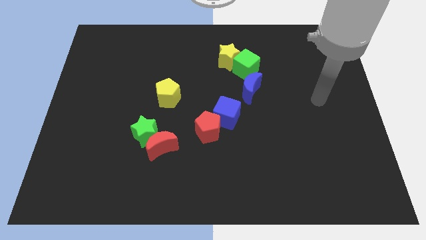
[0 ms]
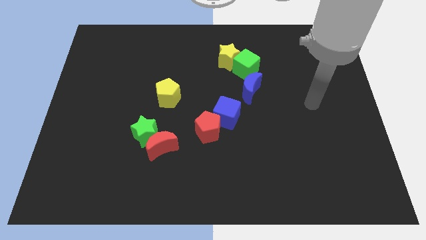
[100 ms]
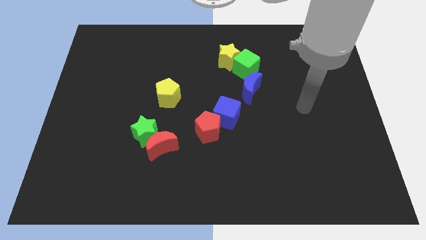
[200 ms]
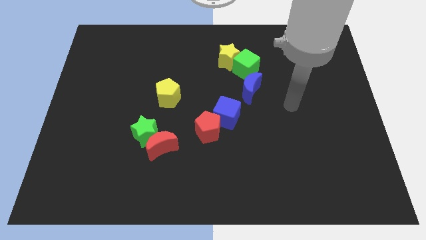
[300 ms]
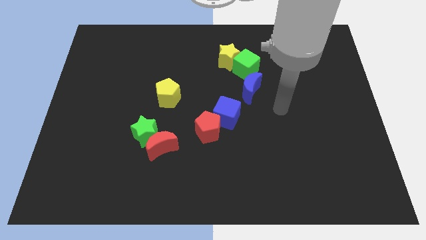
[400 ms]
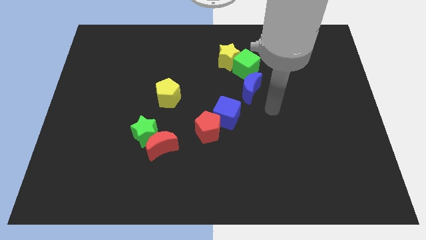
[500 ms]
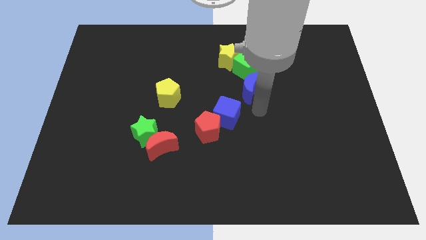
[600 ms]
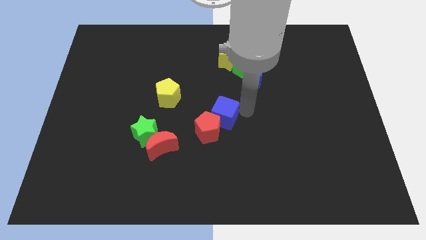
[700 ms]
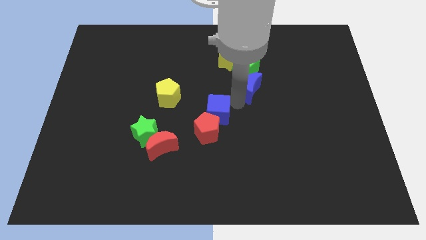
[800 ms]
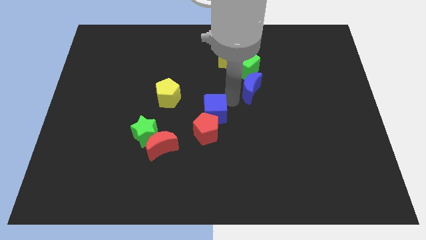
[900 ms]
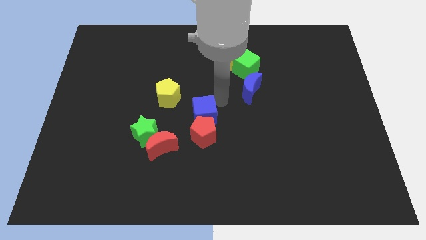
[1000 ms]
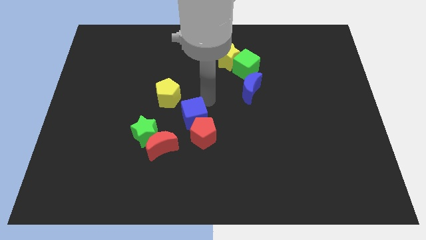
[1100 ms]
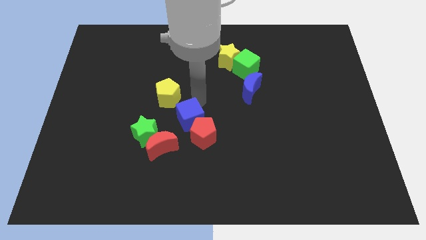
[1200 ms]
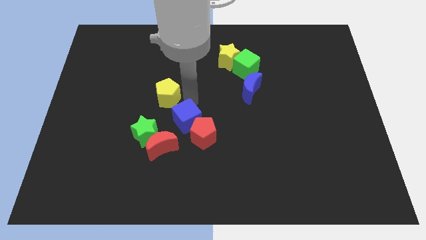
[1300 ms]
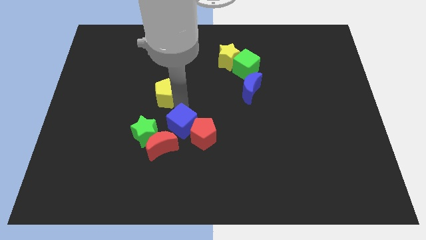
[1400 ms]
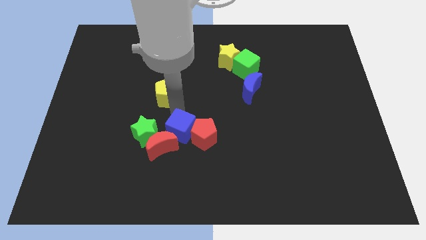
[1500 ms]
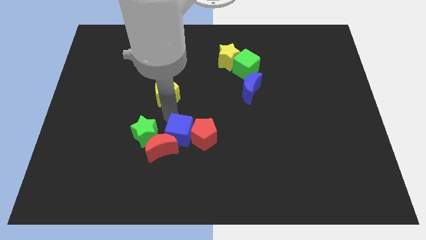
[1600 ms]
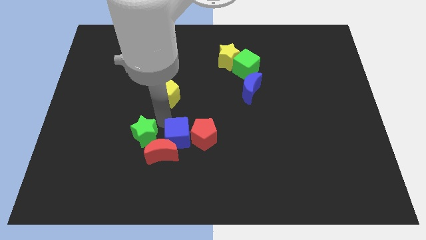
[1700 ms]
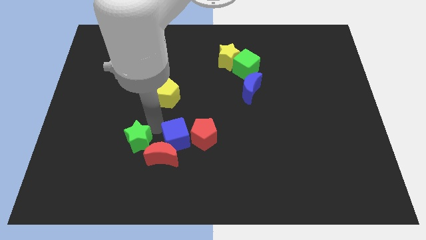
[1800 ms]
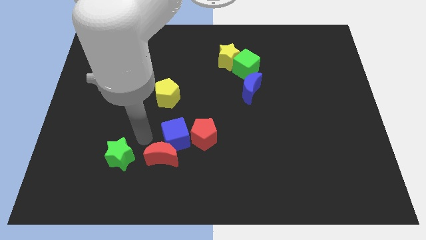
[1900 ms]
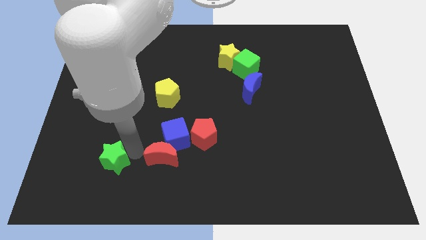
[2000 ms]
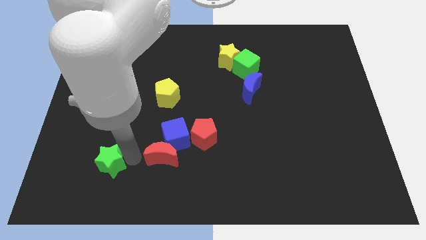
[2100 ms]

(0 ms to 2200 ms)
separate the red moon from the green star

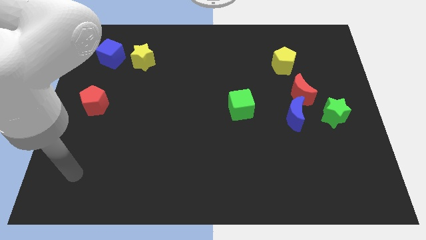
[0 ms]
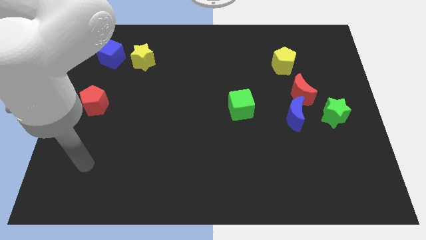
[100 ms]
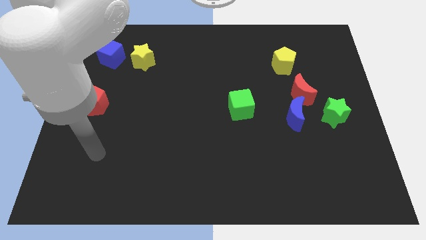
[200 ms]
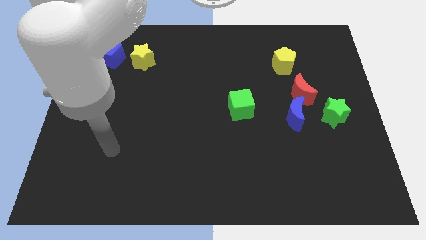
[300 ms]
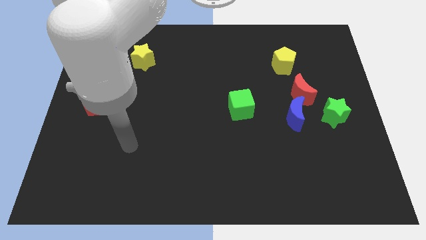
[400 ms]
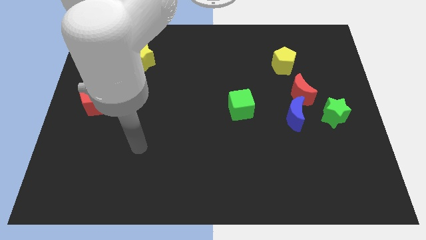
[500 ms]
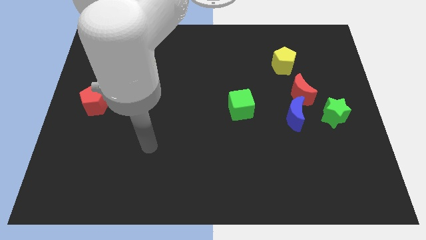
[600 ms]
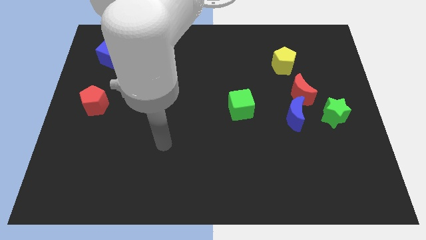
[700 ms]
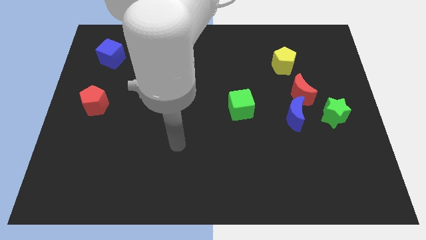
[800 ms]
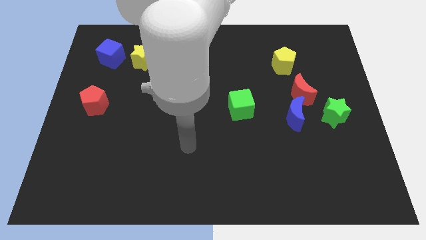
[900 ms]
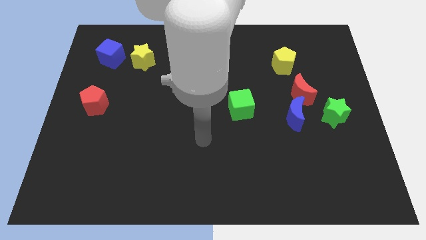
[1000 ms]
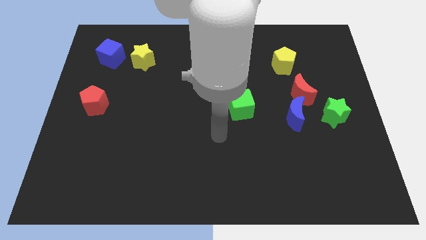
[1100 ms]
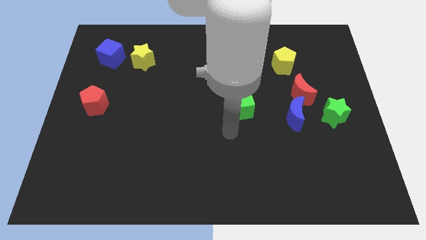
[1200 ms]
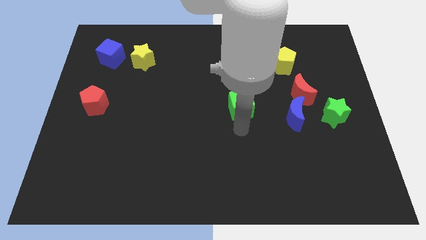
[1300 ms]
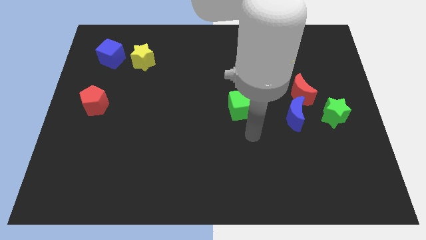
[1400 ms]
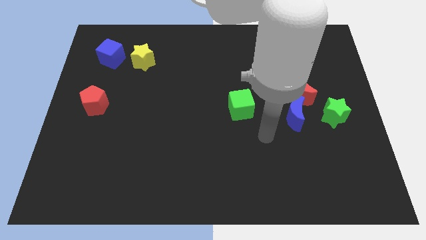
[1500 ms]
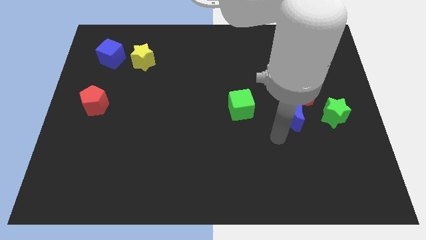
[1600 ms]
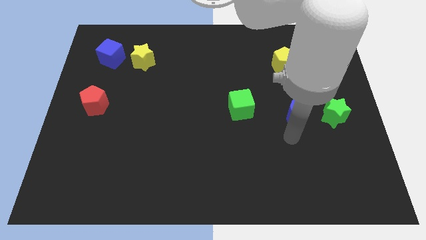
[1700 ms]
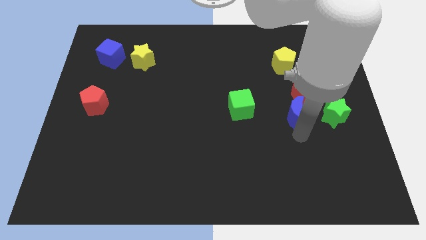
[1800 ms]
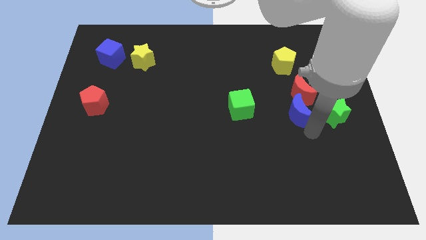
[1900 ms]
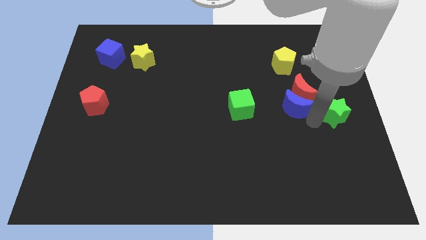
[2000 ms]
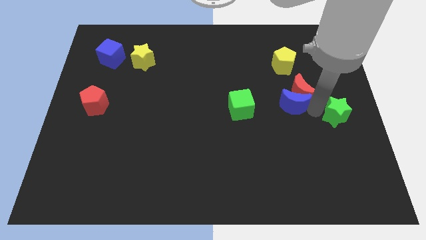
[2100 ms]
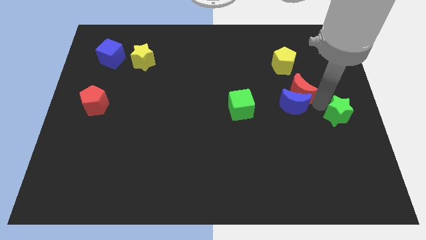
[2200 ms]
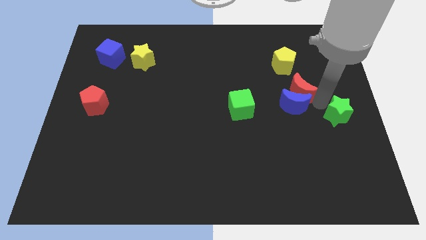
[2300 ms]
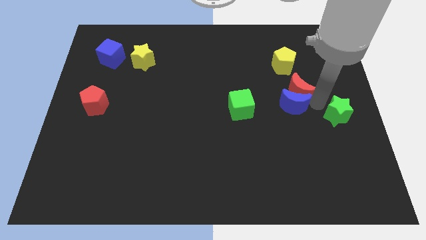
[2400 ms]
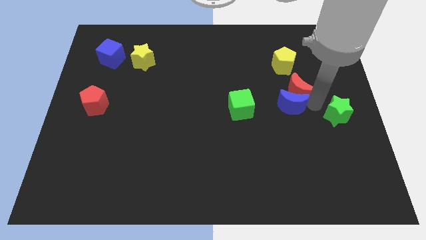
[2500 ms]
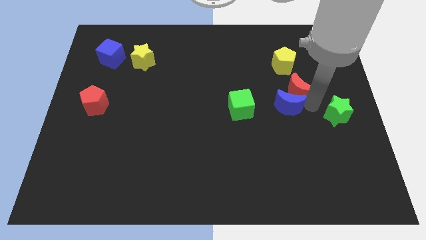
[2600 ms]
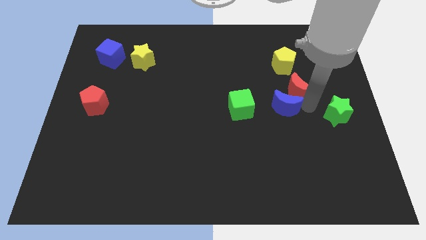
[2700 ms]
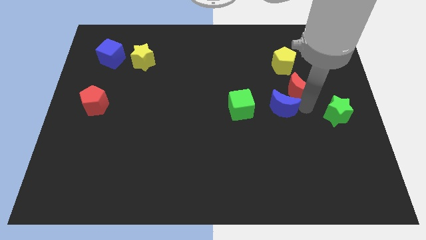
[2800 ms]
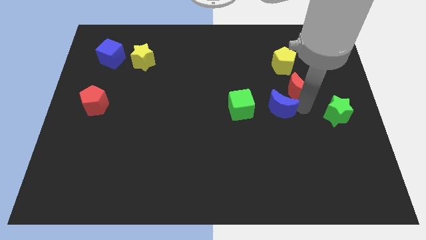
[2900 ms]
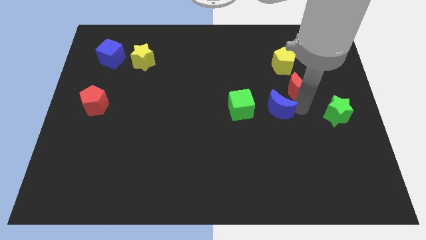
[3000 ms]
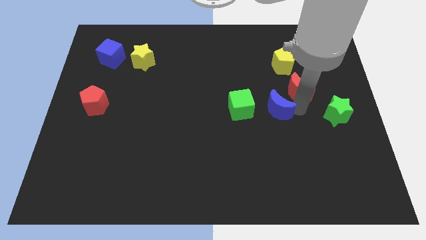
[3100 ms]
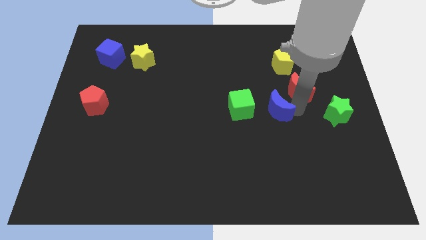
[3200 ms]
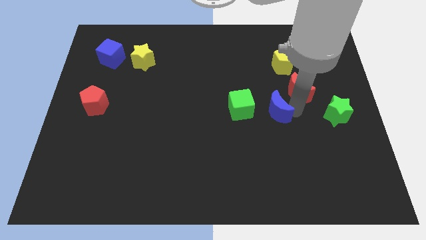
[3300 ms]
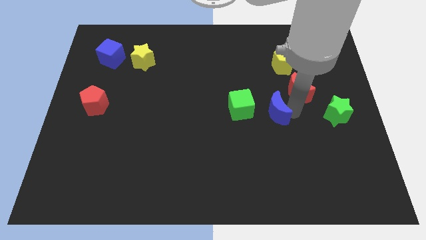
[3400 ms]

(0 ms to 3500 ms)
move the blue moon away from the red moon and green star

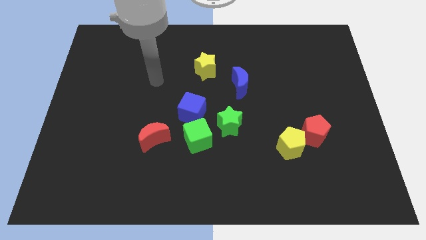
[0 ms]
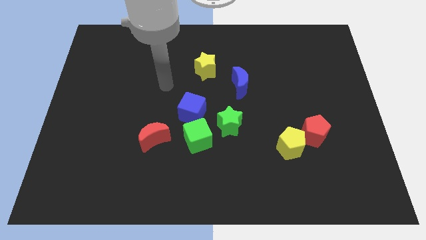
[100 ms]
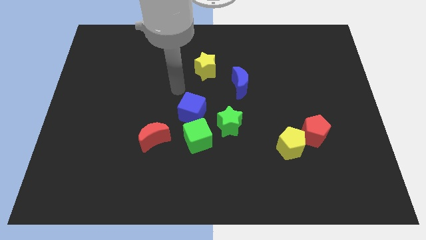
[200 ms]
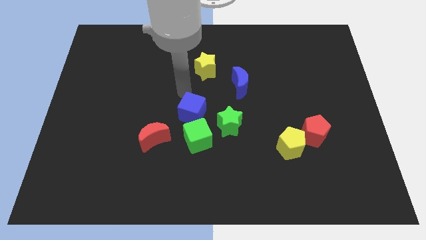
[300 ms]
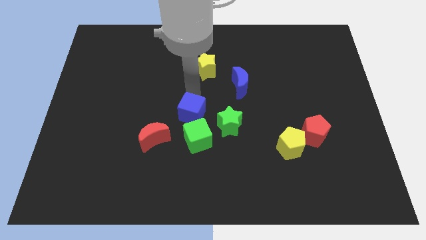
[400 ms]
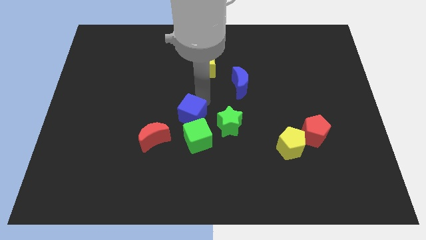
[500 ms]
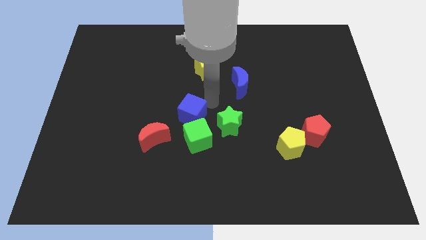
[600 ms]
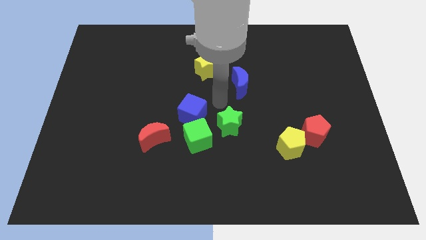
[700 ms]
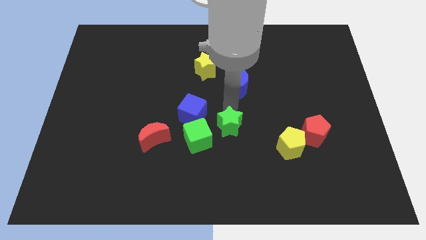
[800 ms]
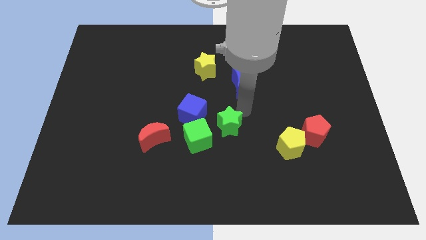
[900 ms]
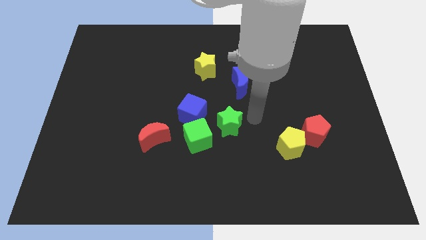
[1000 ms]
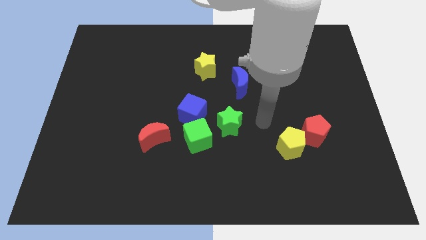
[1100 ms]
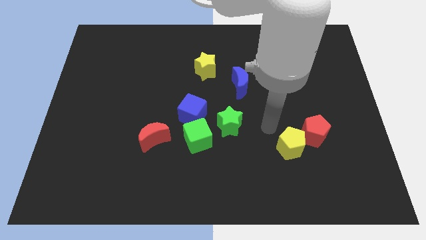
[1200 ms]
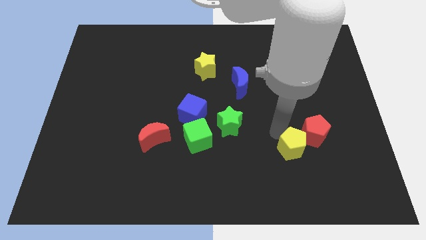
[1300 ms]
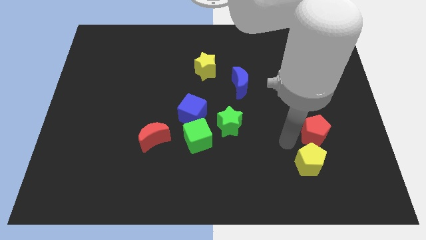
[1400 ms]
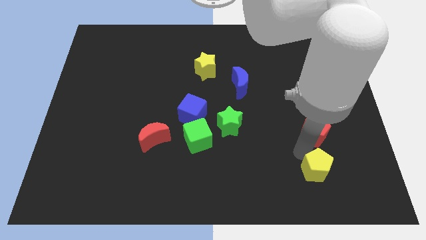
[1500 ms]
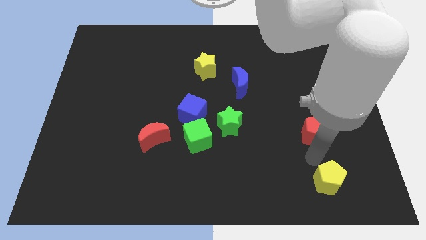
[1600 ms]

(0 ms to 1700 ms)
separate the red pentagon from the yellow pentagon

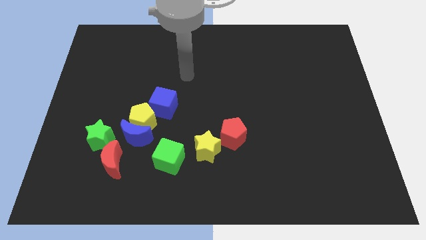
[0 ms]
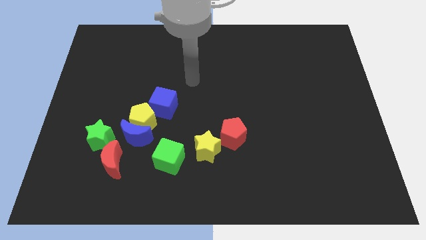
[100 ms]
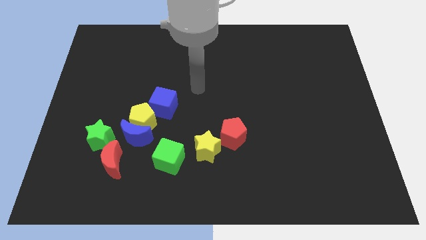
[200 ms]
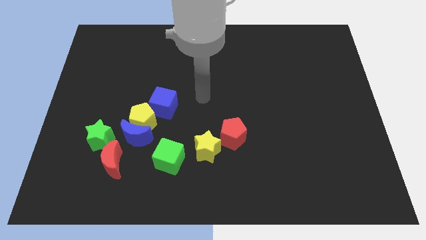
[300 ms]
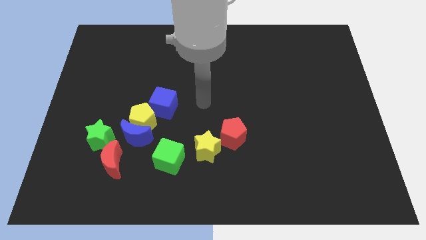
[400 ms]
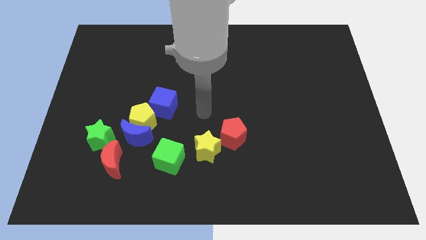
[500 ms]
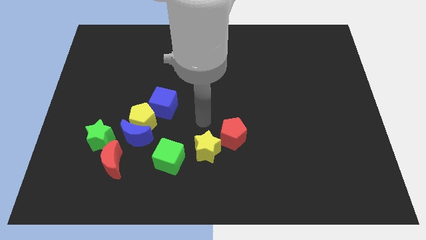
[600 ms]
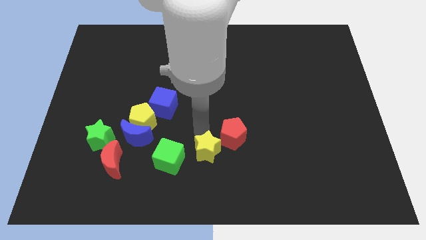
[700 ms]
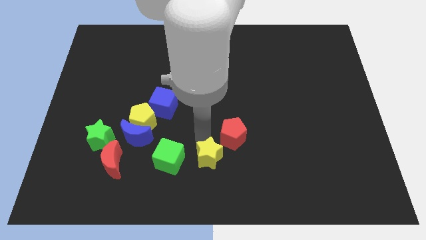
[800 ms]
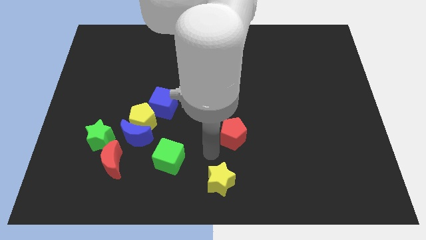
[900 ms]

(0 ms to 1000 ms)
separate the red pentagon from the yellow star

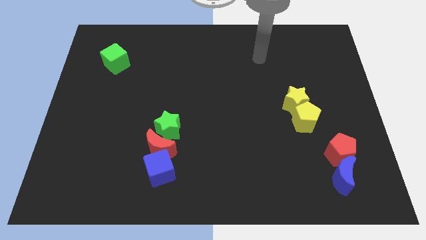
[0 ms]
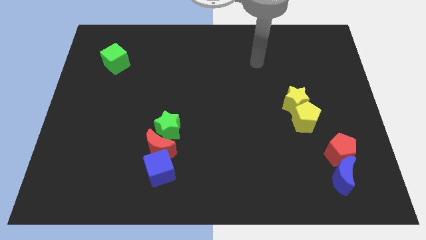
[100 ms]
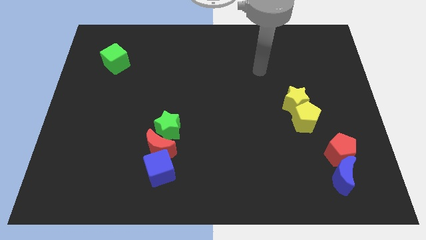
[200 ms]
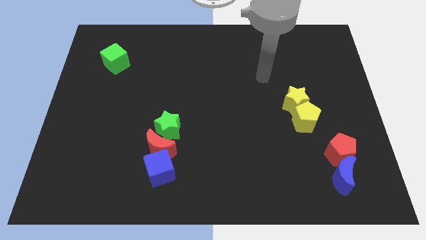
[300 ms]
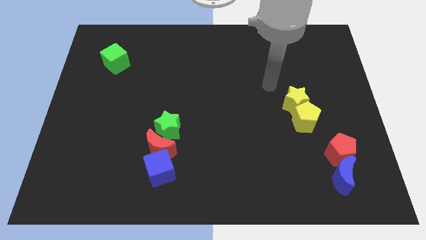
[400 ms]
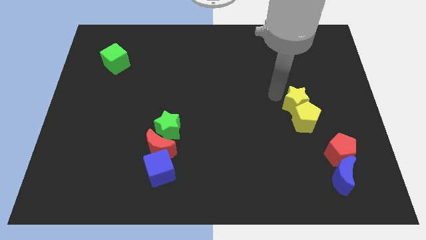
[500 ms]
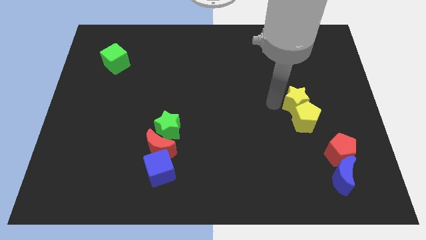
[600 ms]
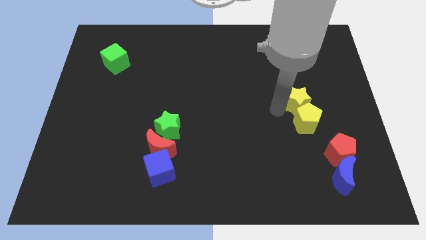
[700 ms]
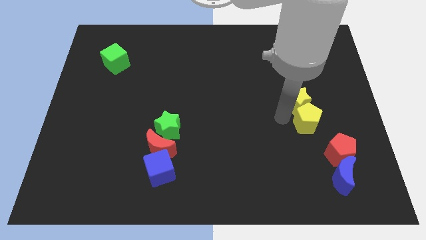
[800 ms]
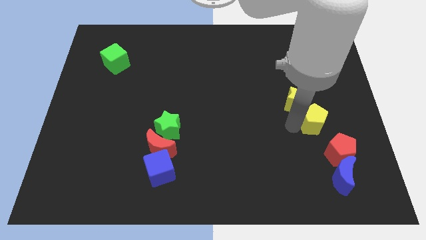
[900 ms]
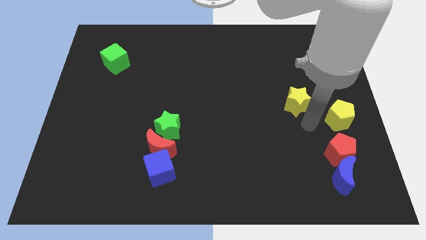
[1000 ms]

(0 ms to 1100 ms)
pull the yellow star apart from the yellow pentagon
